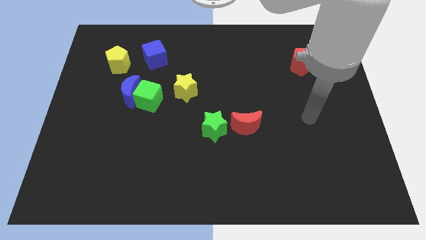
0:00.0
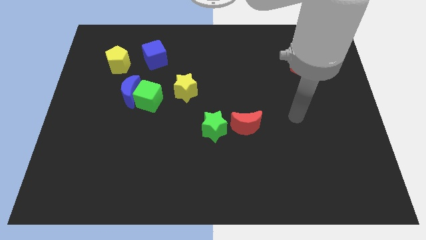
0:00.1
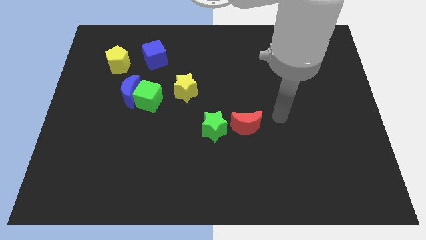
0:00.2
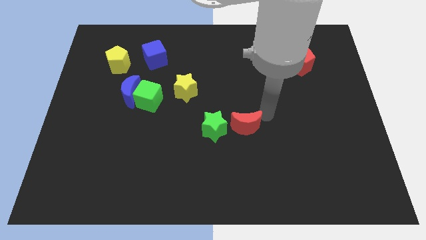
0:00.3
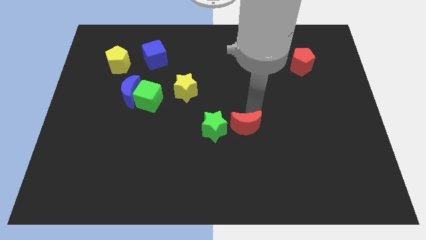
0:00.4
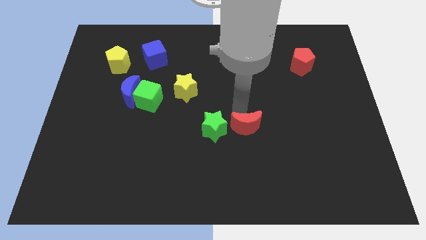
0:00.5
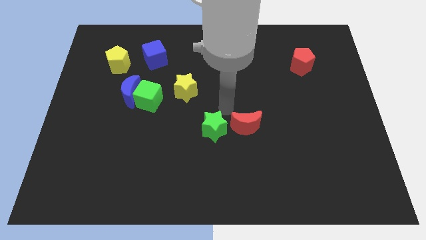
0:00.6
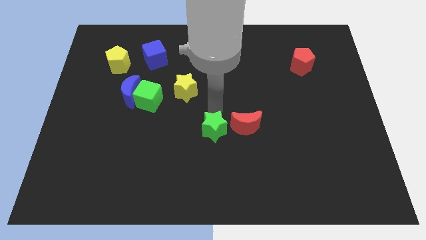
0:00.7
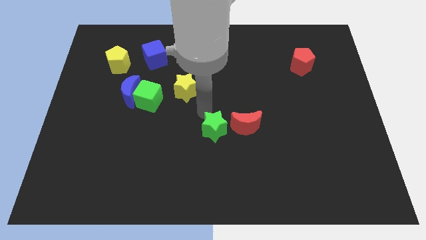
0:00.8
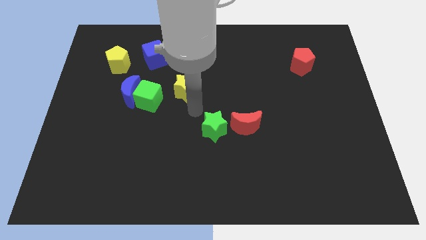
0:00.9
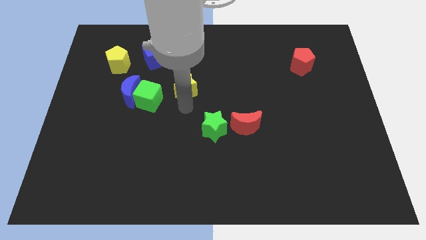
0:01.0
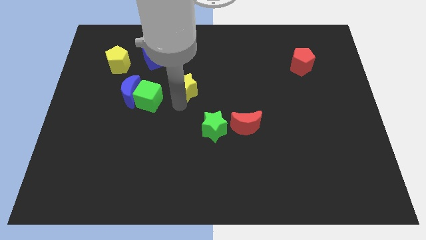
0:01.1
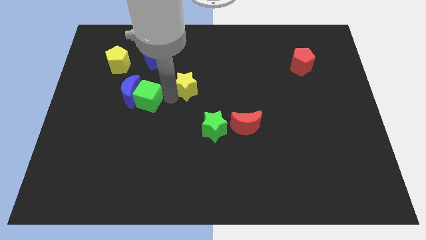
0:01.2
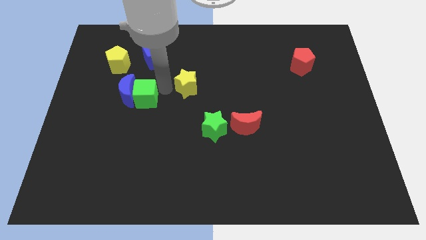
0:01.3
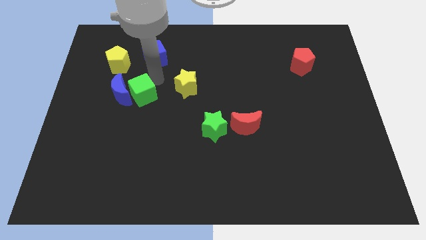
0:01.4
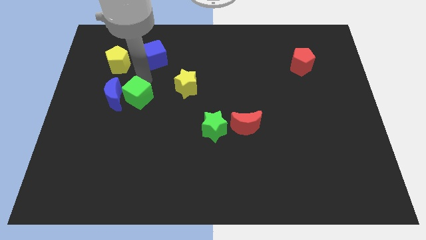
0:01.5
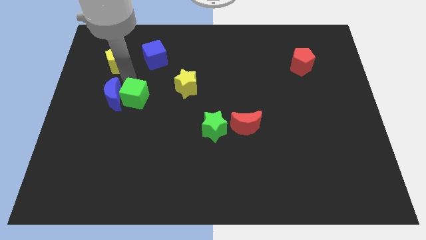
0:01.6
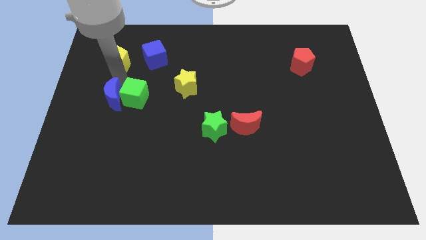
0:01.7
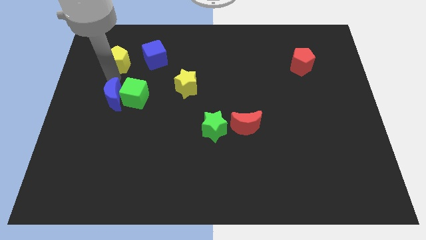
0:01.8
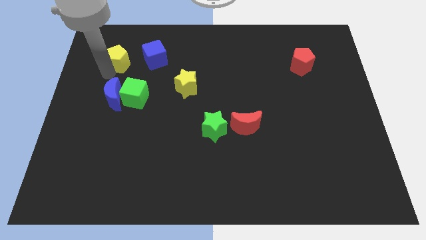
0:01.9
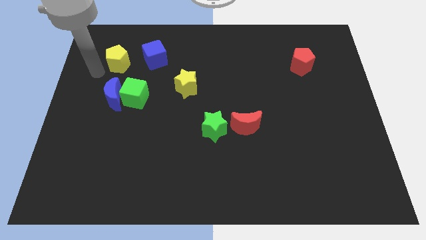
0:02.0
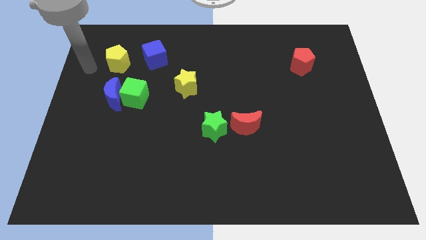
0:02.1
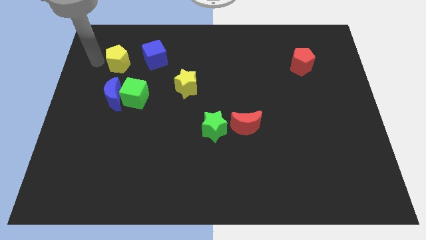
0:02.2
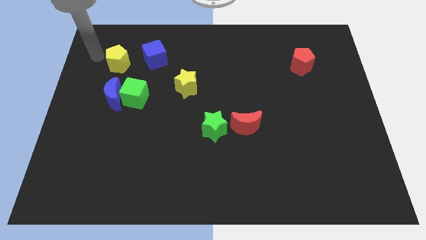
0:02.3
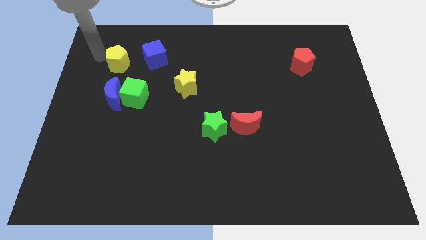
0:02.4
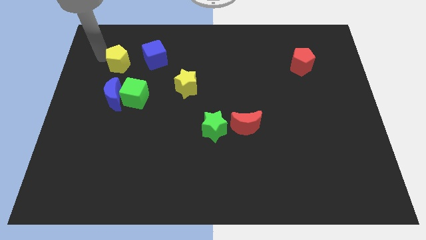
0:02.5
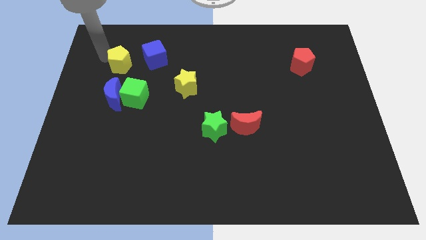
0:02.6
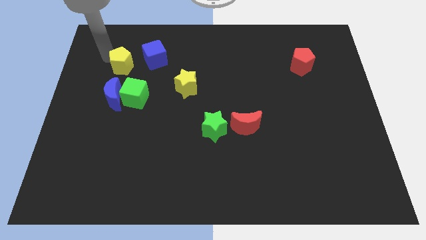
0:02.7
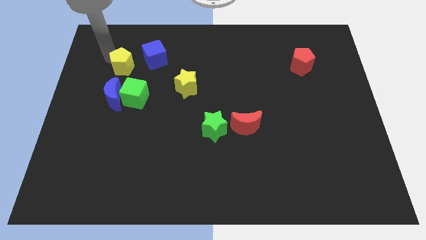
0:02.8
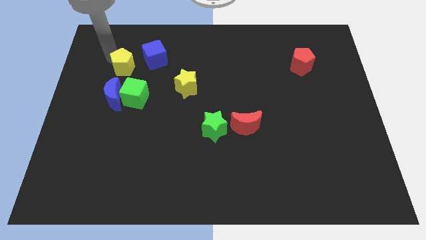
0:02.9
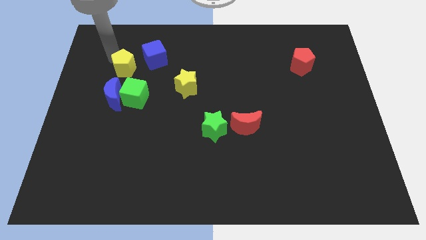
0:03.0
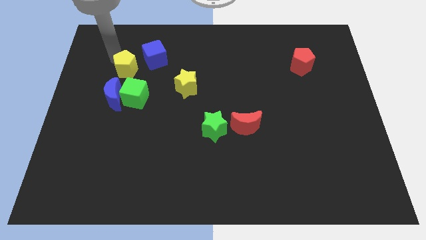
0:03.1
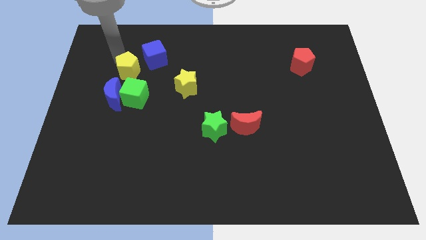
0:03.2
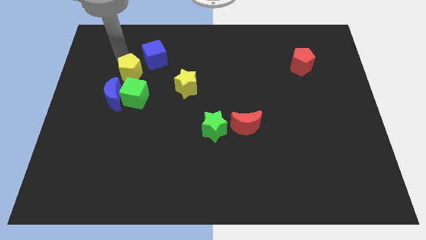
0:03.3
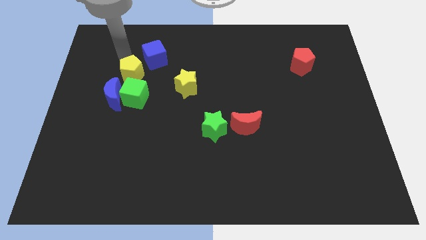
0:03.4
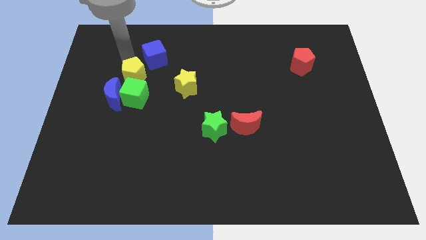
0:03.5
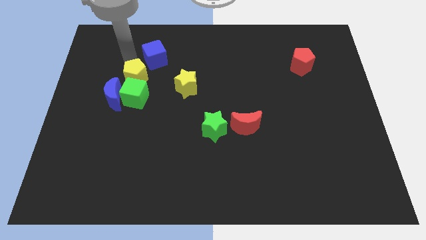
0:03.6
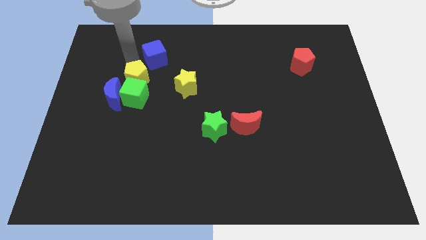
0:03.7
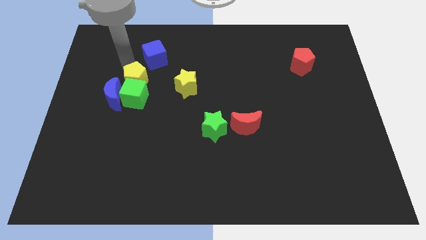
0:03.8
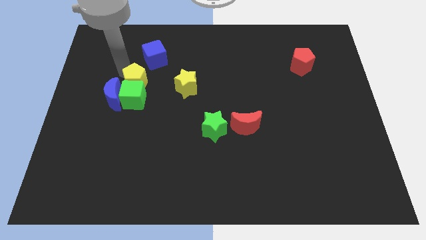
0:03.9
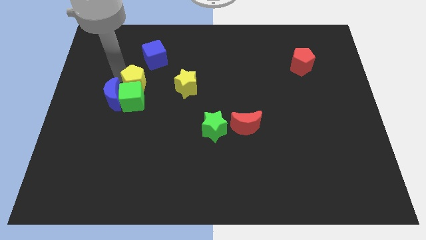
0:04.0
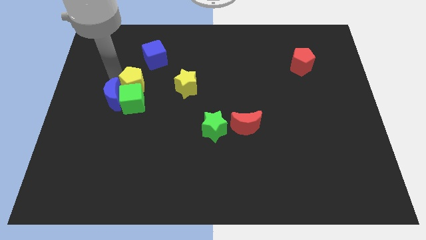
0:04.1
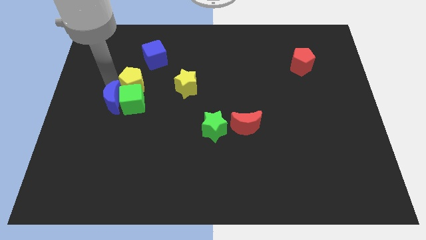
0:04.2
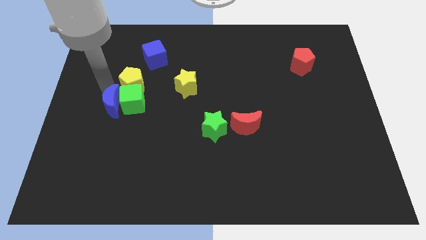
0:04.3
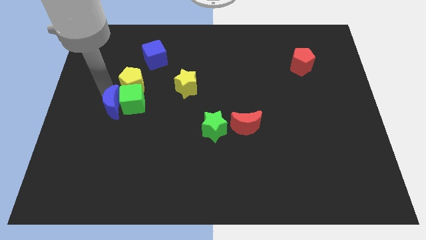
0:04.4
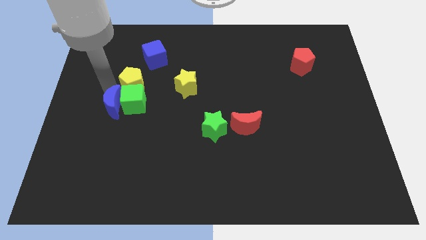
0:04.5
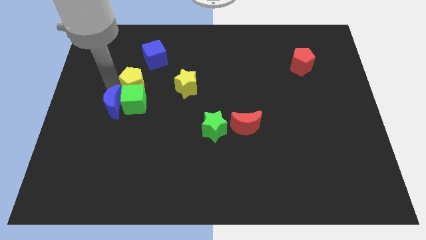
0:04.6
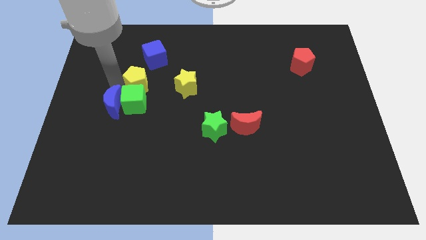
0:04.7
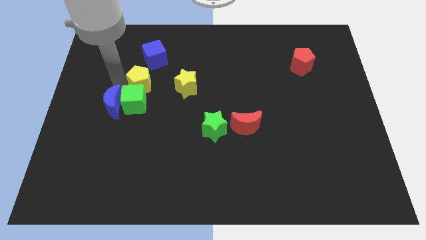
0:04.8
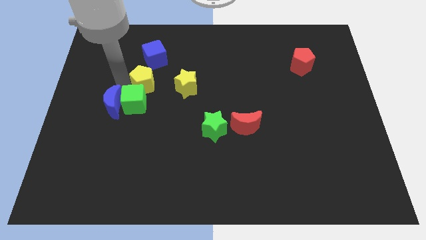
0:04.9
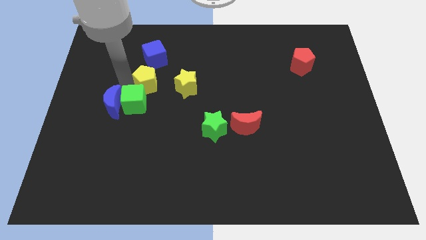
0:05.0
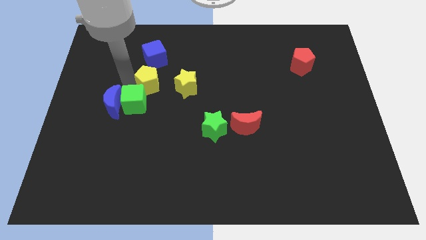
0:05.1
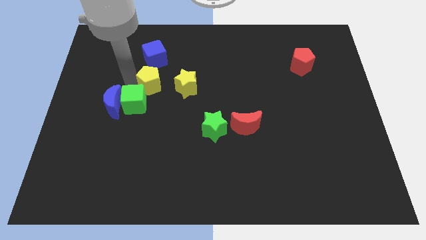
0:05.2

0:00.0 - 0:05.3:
slightly move the yellow pentagon right

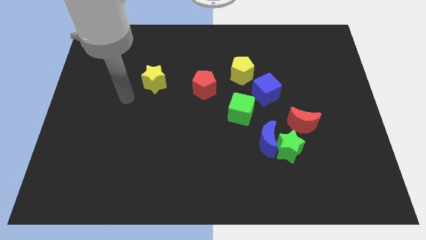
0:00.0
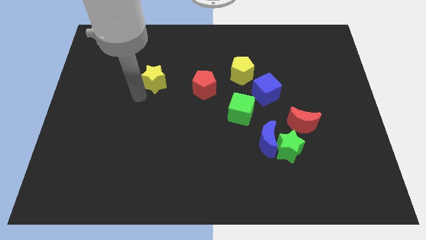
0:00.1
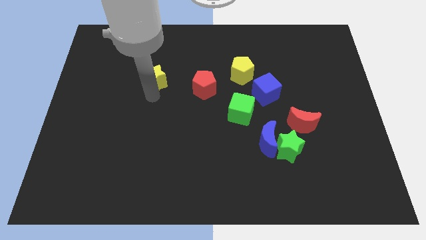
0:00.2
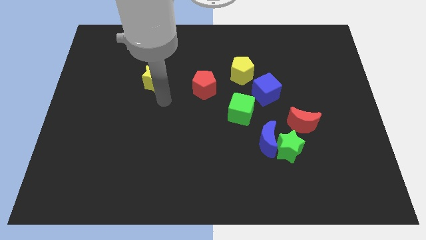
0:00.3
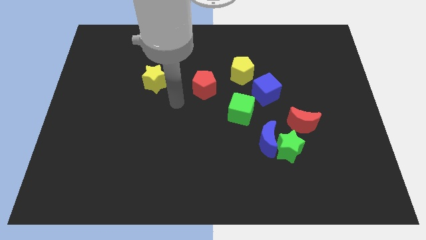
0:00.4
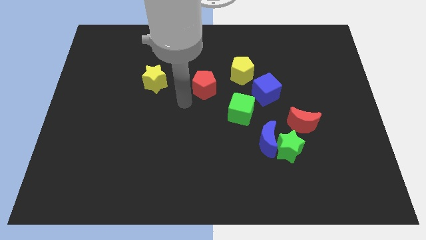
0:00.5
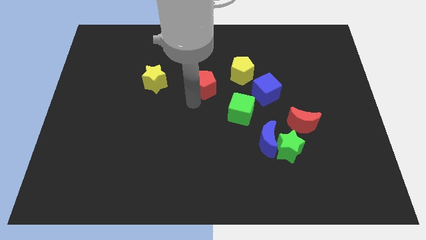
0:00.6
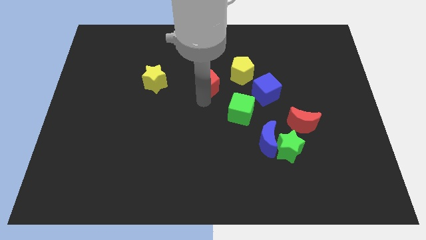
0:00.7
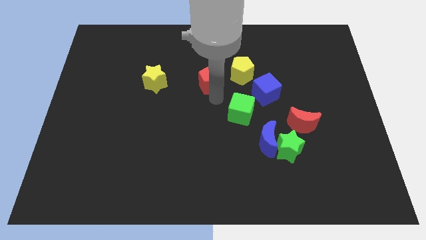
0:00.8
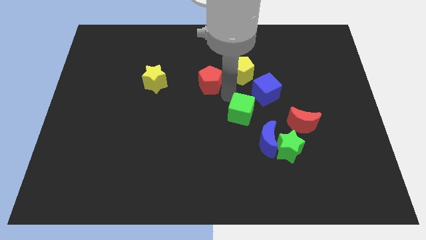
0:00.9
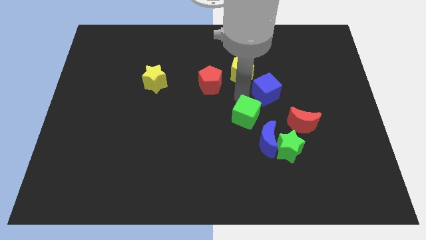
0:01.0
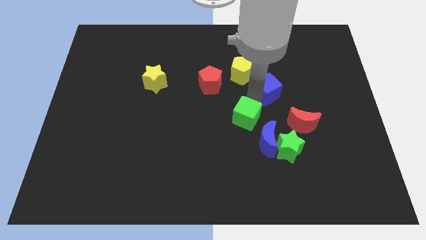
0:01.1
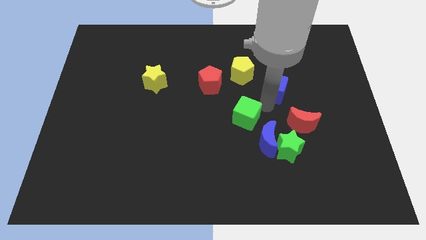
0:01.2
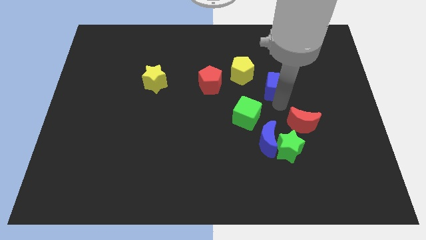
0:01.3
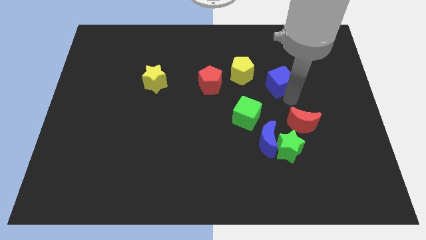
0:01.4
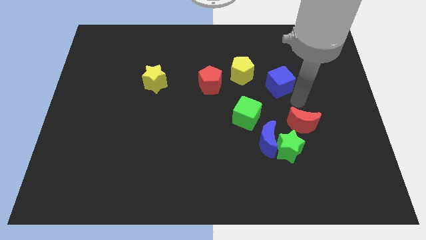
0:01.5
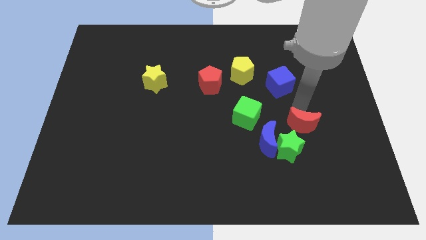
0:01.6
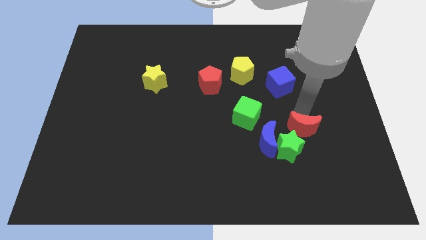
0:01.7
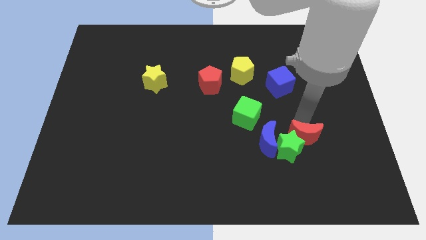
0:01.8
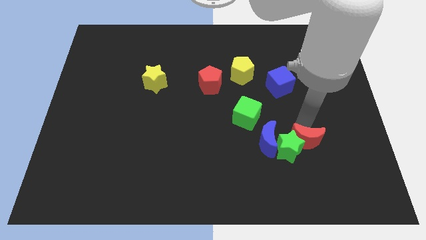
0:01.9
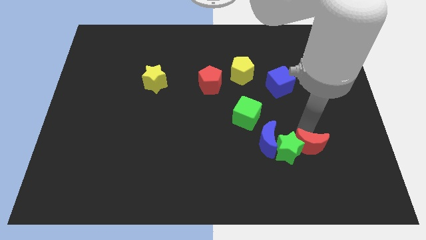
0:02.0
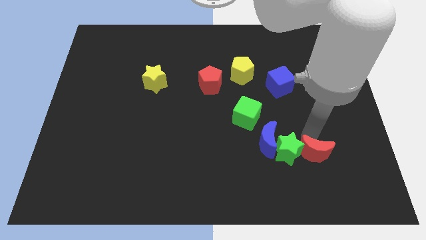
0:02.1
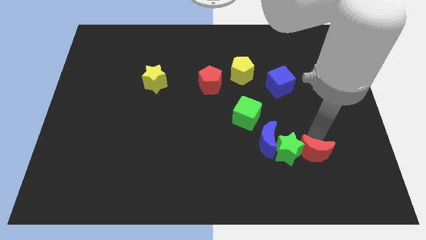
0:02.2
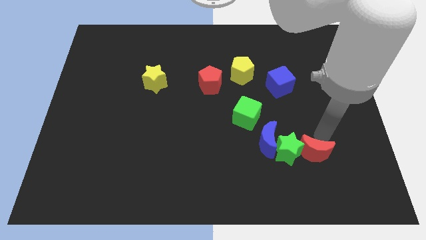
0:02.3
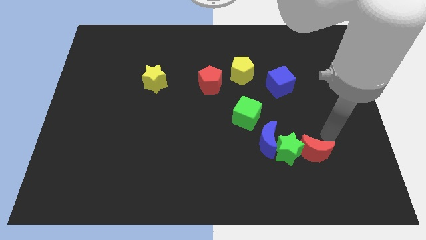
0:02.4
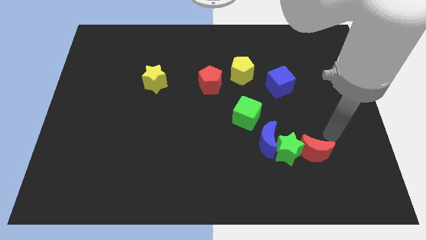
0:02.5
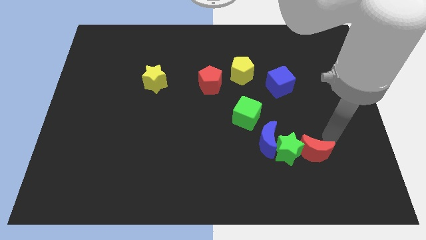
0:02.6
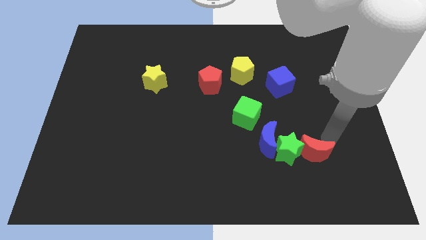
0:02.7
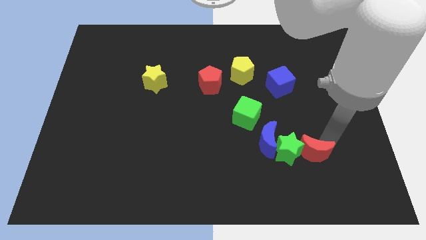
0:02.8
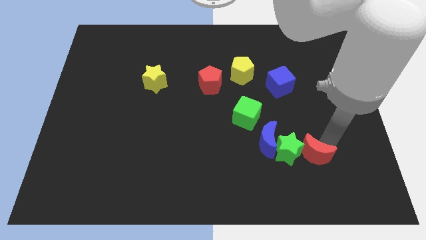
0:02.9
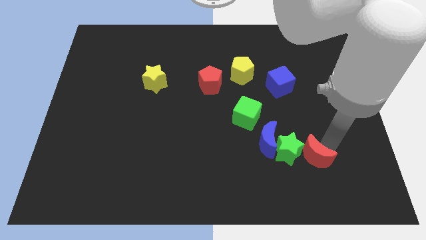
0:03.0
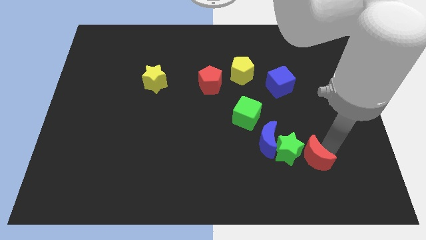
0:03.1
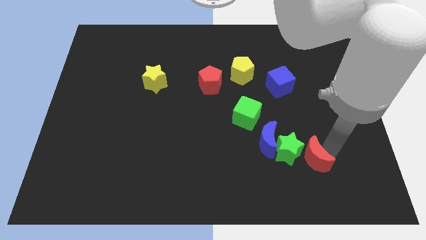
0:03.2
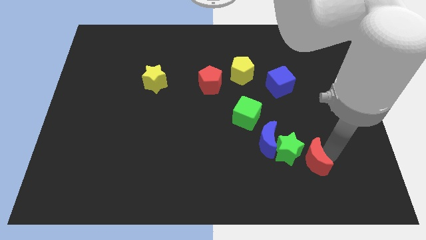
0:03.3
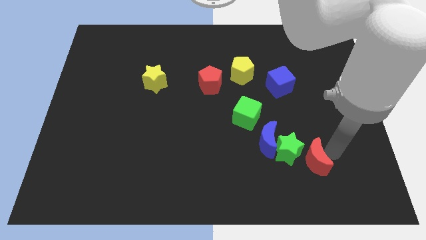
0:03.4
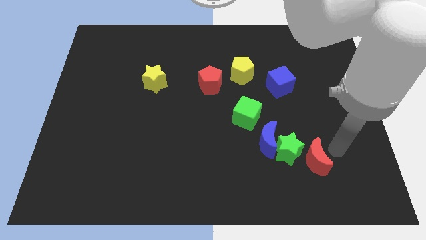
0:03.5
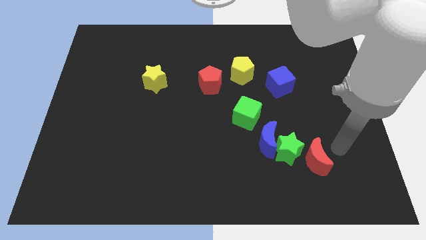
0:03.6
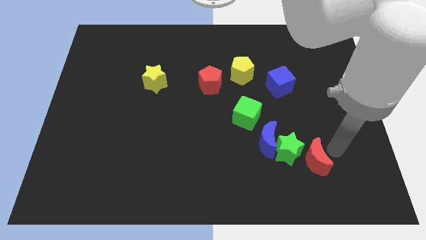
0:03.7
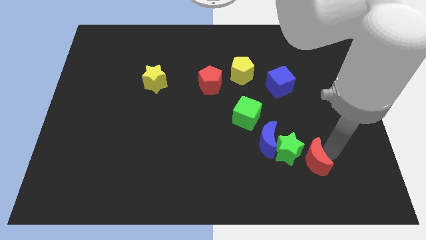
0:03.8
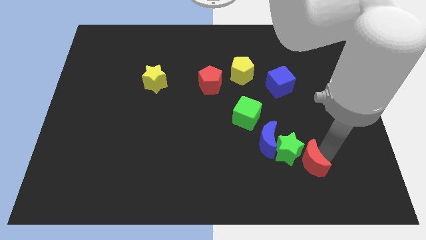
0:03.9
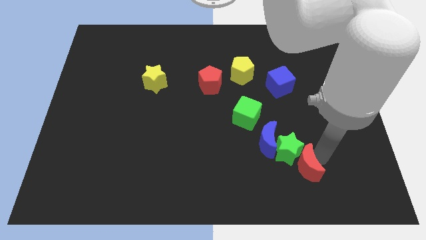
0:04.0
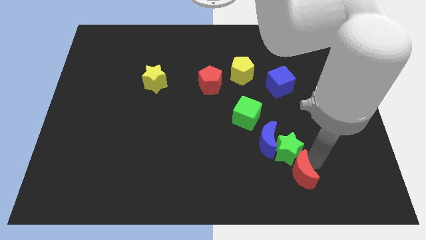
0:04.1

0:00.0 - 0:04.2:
move the red moon slightly downwards and left diagonally
